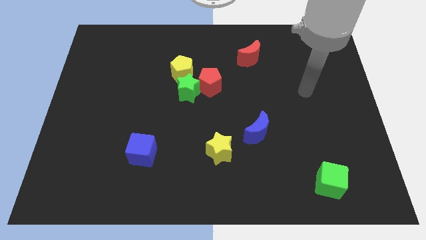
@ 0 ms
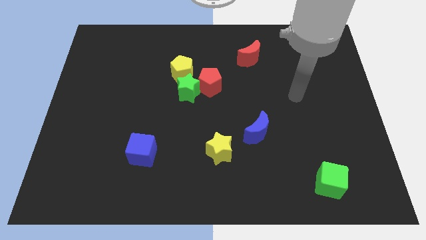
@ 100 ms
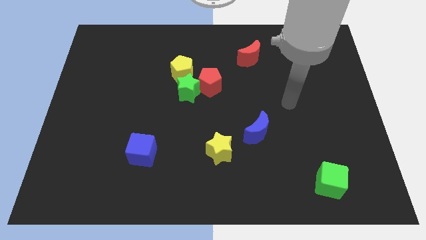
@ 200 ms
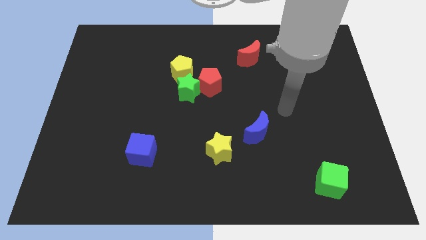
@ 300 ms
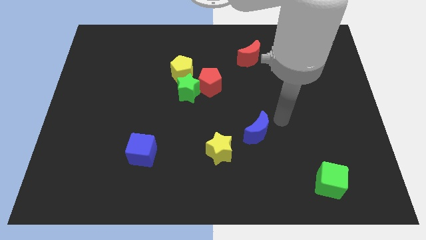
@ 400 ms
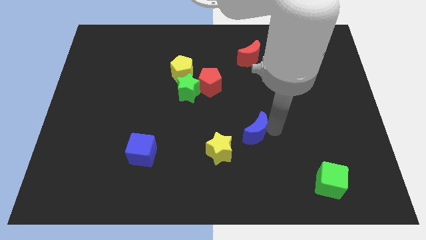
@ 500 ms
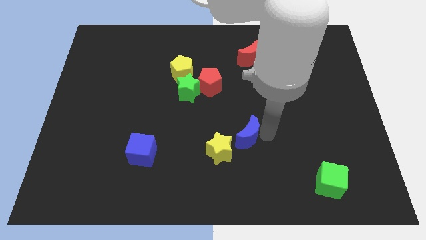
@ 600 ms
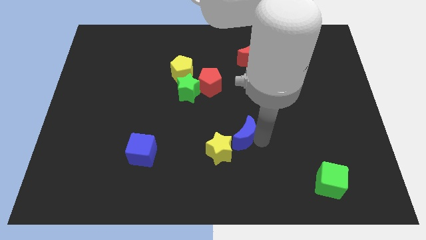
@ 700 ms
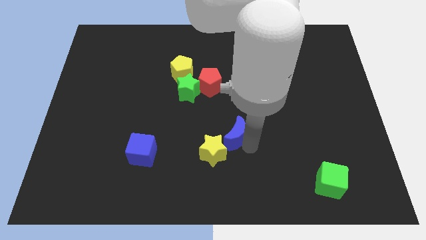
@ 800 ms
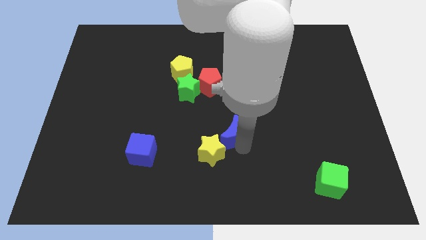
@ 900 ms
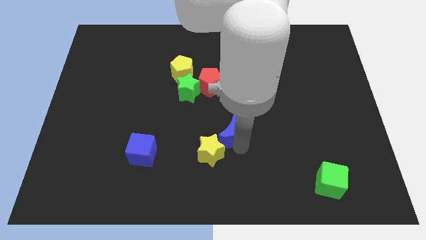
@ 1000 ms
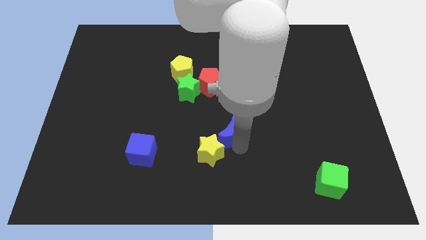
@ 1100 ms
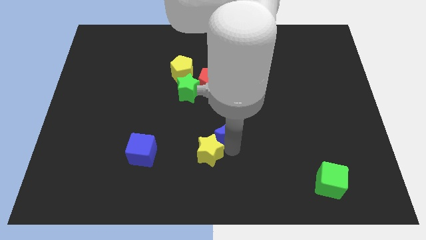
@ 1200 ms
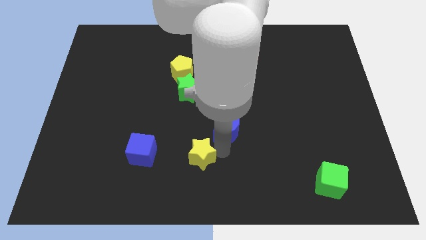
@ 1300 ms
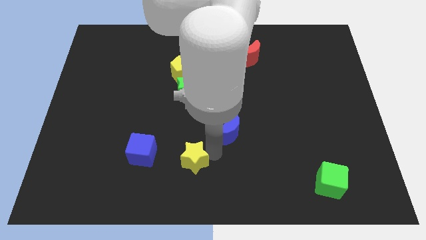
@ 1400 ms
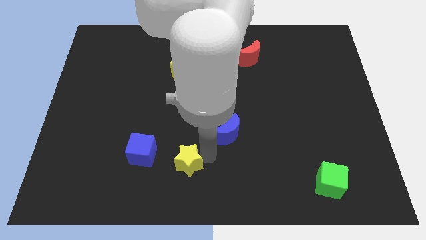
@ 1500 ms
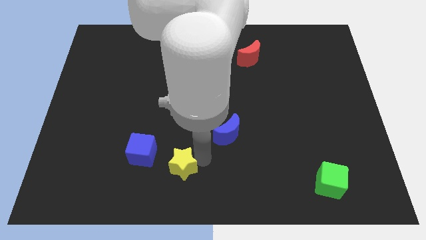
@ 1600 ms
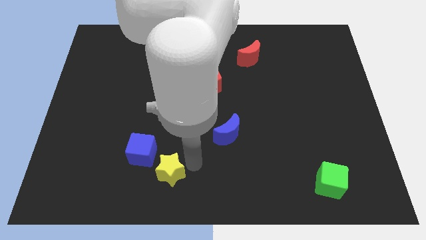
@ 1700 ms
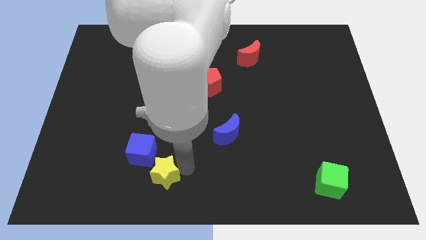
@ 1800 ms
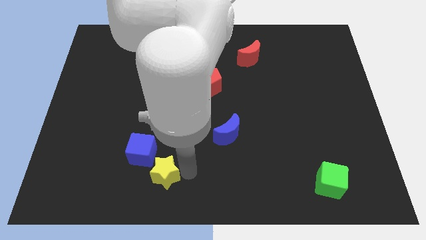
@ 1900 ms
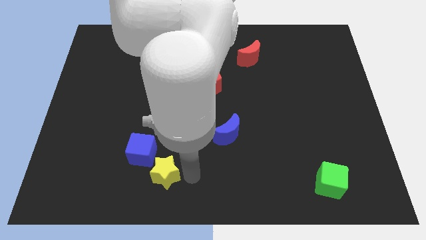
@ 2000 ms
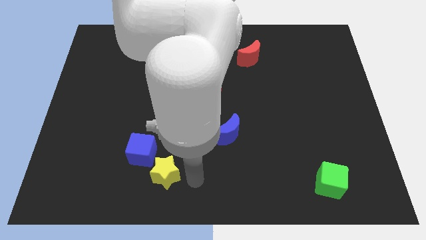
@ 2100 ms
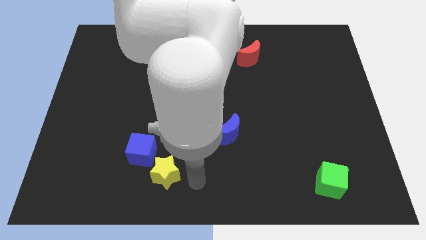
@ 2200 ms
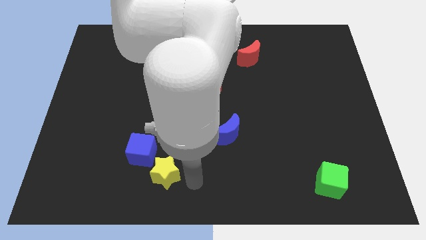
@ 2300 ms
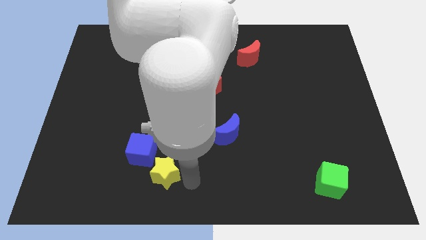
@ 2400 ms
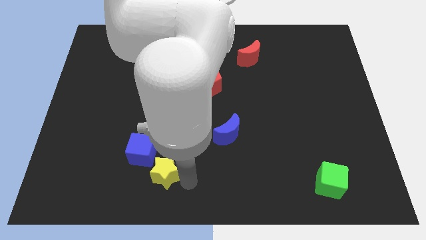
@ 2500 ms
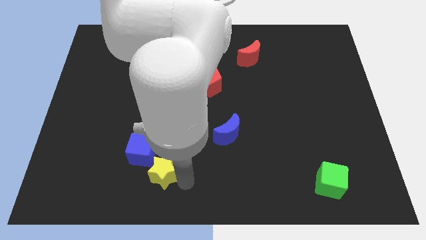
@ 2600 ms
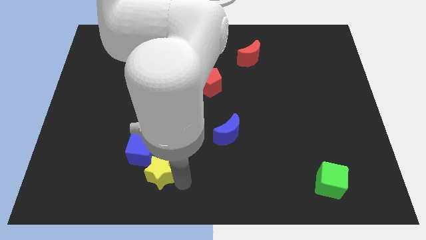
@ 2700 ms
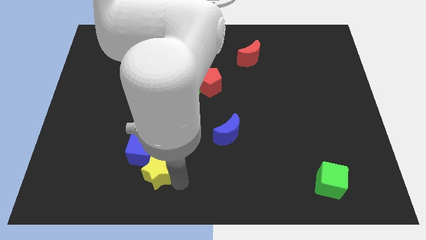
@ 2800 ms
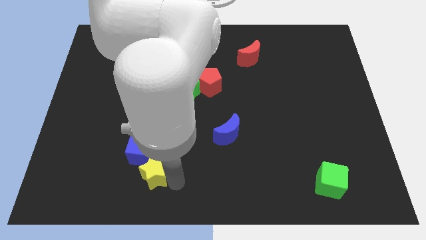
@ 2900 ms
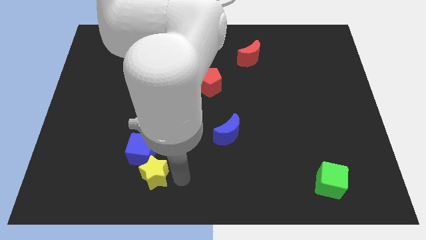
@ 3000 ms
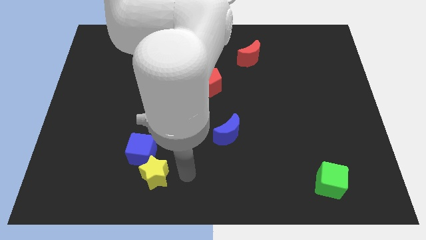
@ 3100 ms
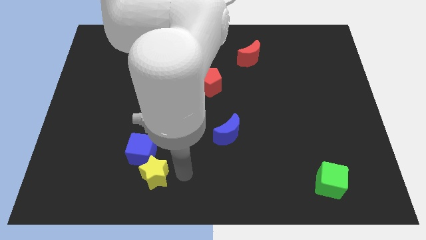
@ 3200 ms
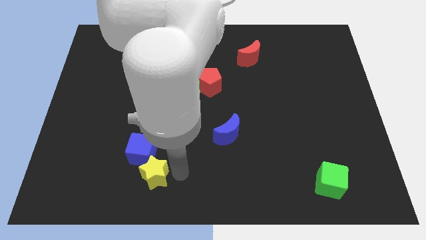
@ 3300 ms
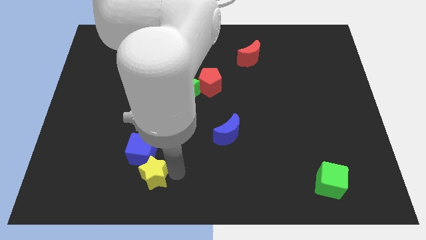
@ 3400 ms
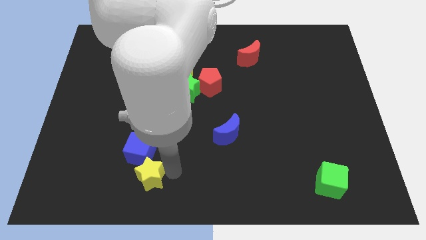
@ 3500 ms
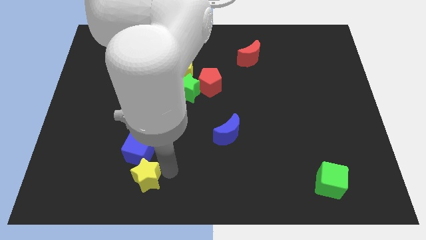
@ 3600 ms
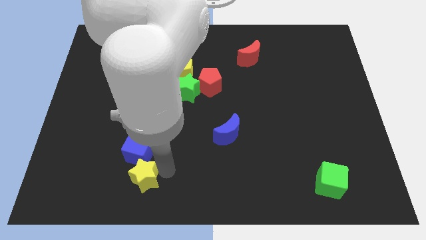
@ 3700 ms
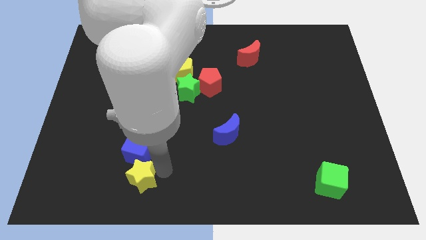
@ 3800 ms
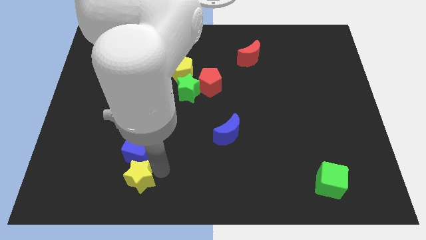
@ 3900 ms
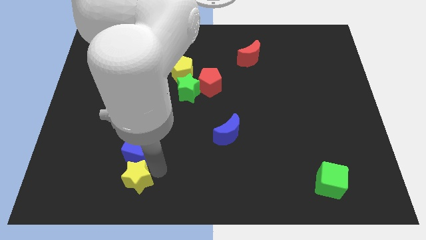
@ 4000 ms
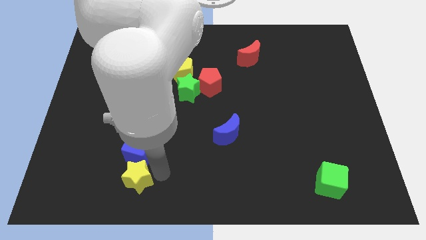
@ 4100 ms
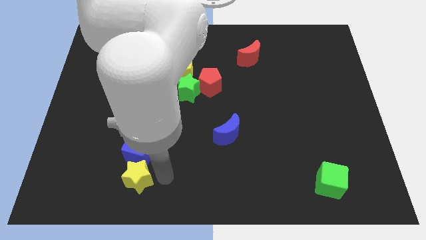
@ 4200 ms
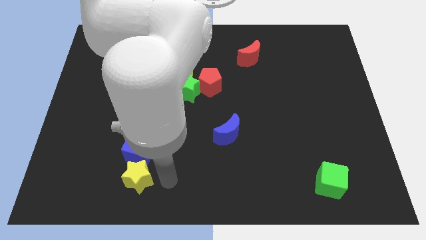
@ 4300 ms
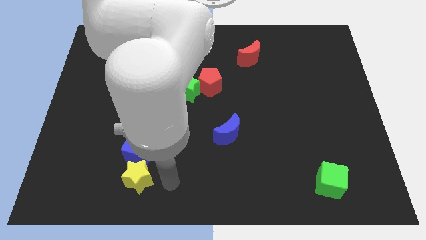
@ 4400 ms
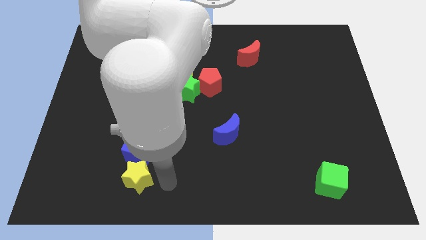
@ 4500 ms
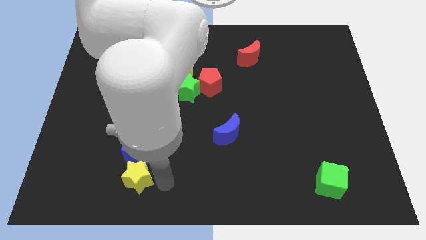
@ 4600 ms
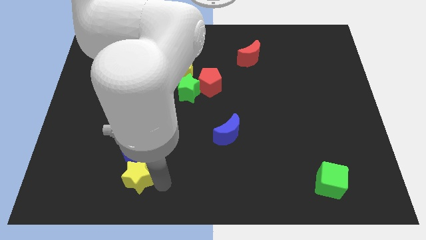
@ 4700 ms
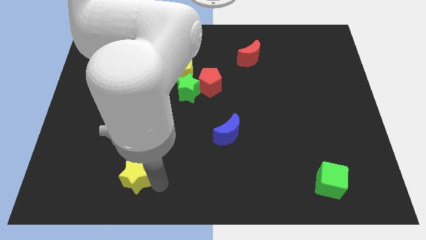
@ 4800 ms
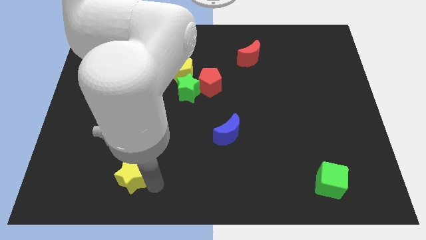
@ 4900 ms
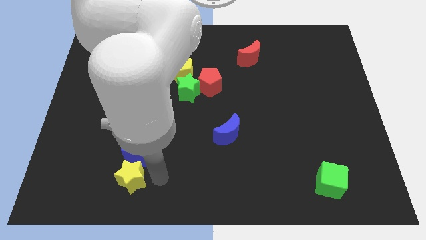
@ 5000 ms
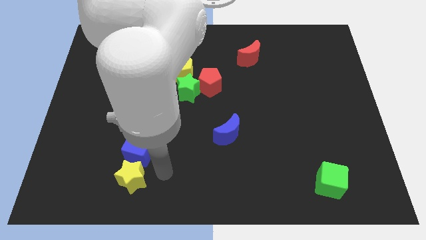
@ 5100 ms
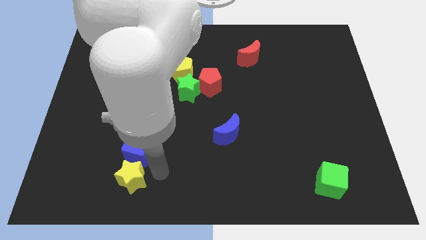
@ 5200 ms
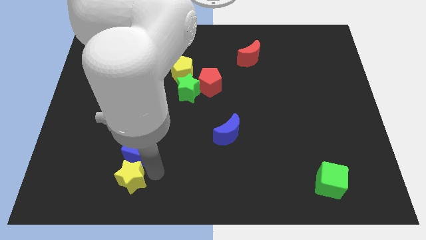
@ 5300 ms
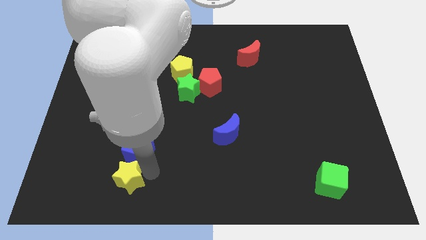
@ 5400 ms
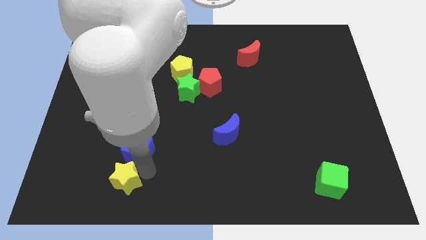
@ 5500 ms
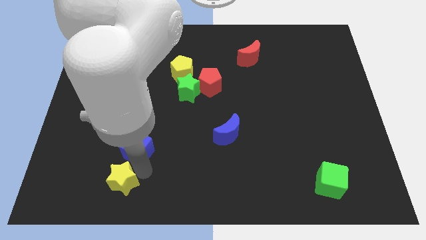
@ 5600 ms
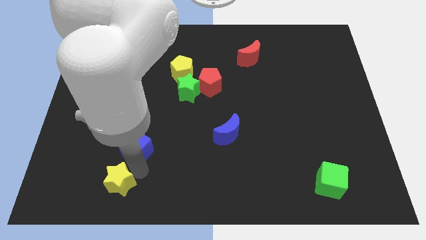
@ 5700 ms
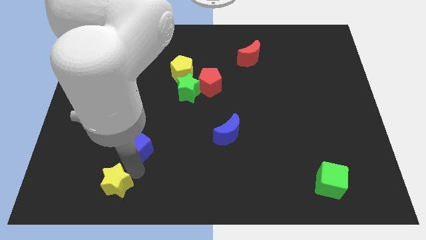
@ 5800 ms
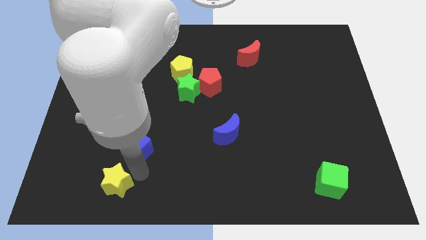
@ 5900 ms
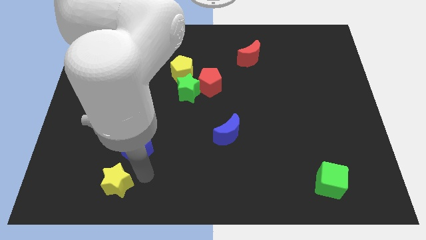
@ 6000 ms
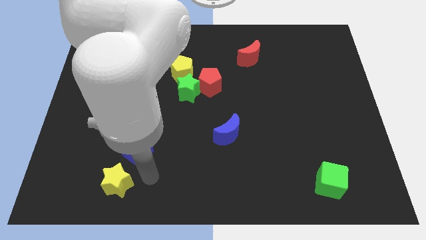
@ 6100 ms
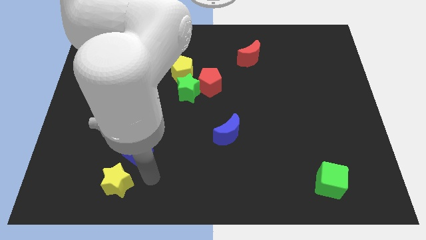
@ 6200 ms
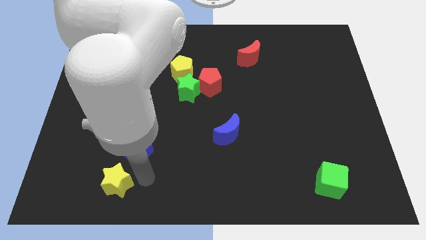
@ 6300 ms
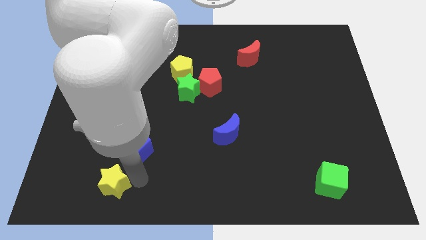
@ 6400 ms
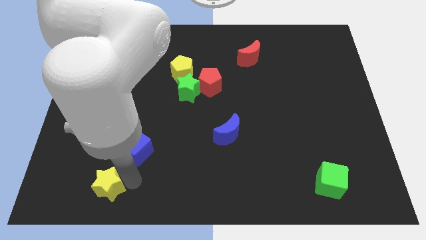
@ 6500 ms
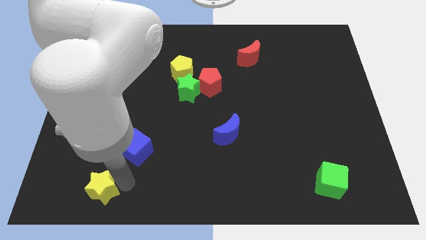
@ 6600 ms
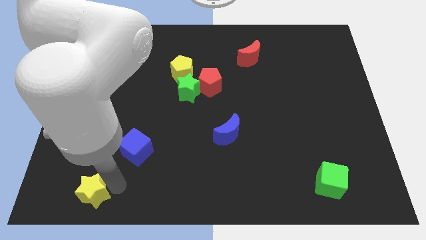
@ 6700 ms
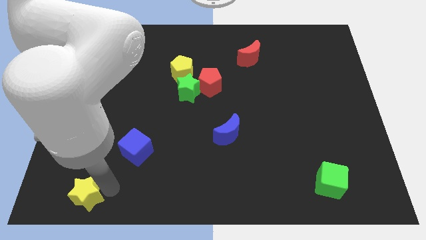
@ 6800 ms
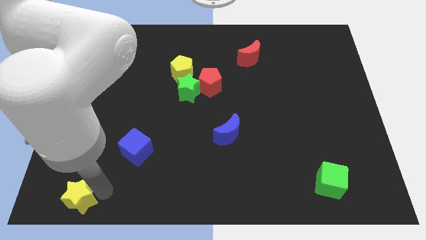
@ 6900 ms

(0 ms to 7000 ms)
push the yellow star to the bottom left of the board
